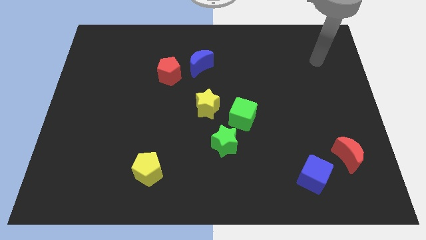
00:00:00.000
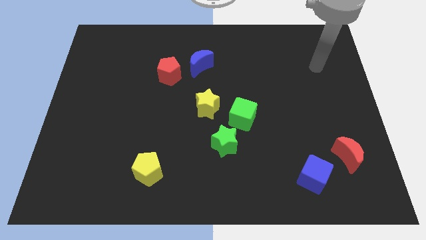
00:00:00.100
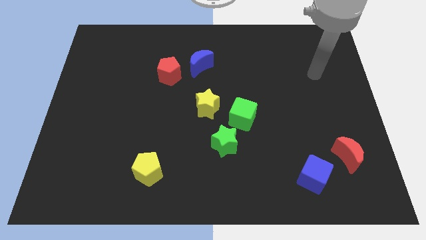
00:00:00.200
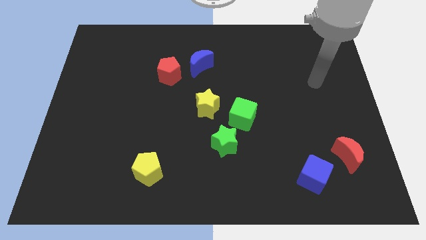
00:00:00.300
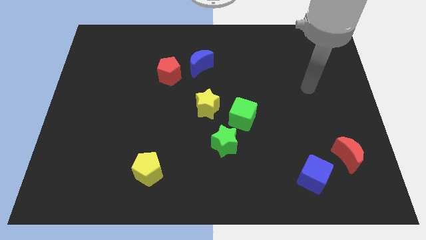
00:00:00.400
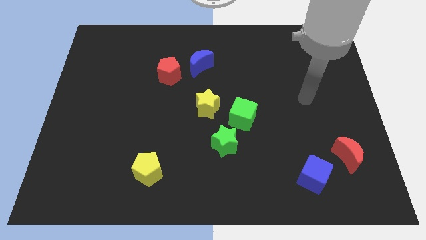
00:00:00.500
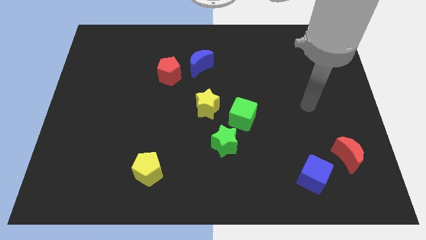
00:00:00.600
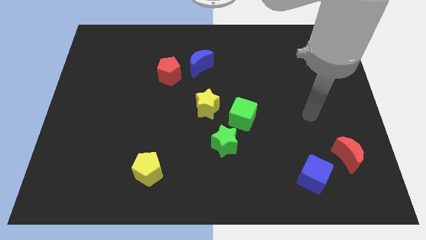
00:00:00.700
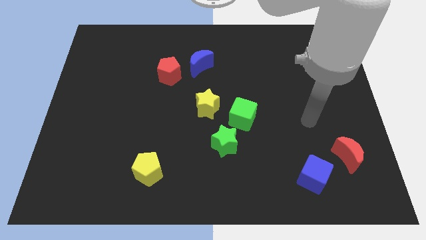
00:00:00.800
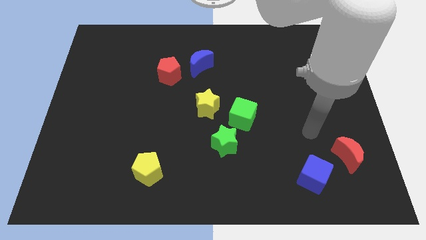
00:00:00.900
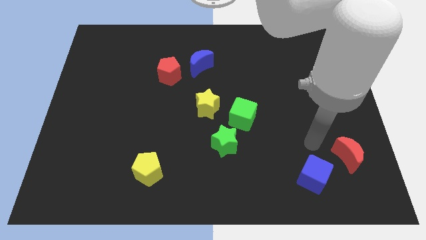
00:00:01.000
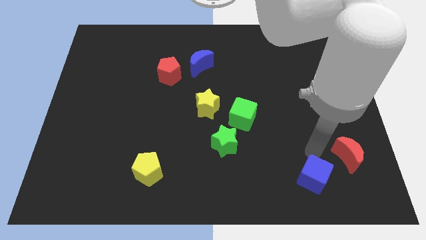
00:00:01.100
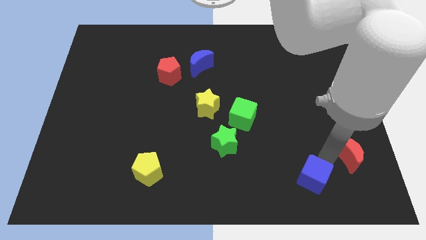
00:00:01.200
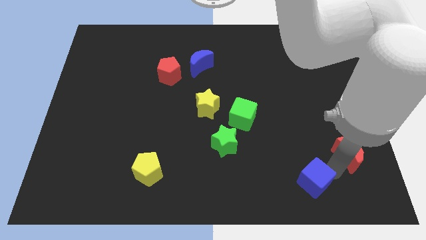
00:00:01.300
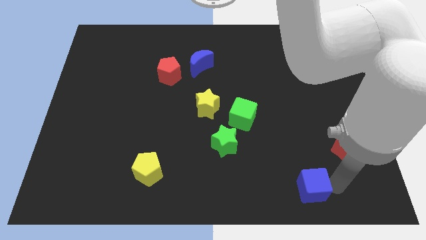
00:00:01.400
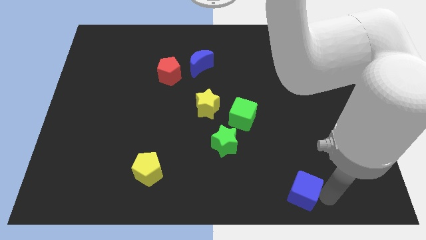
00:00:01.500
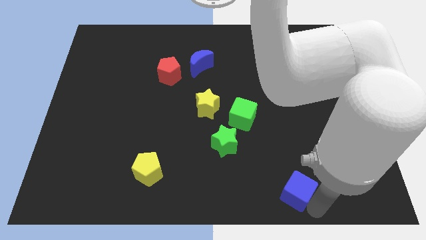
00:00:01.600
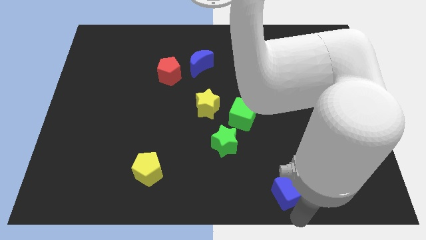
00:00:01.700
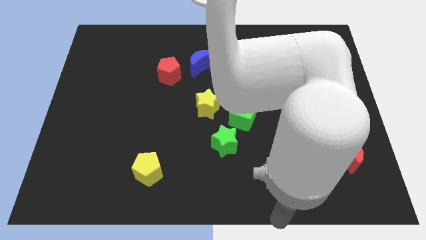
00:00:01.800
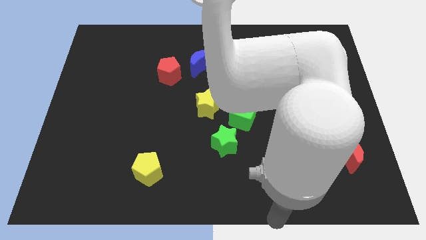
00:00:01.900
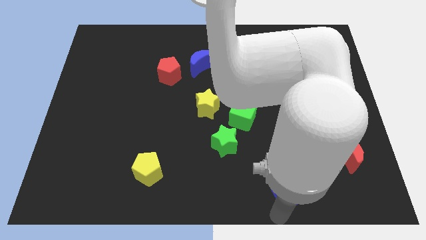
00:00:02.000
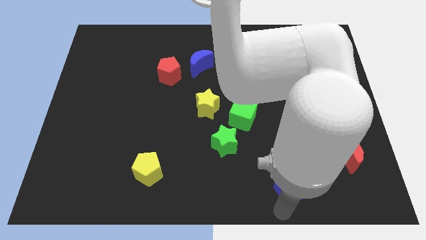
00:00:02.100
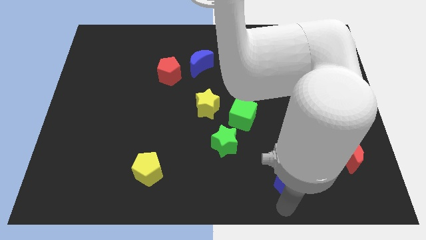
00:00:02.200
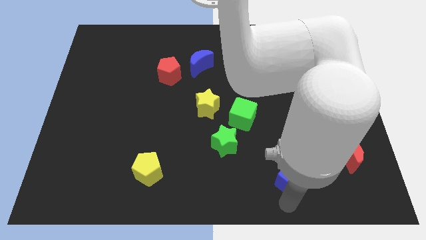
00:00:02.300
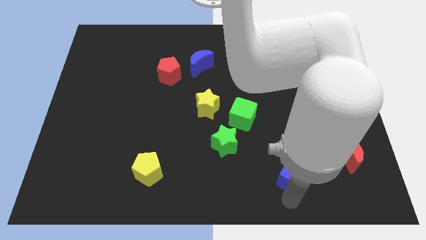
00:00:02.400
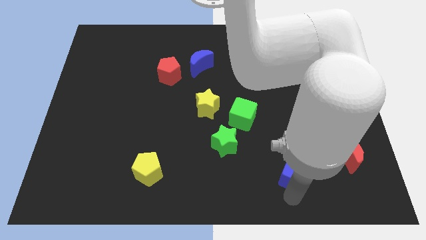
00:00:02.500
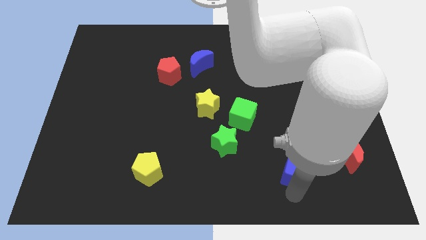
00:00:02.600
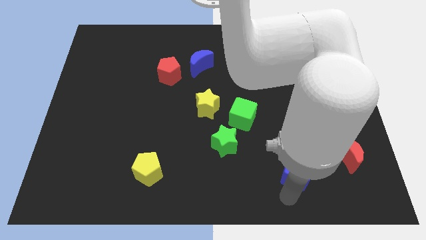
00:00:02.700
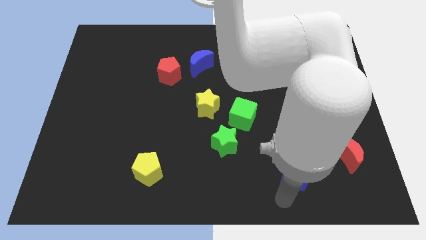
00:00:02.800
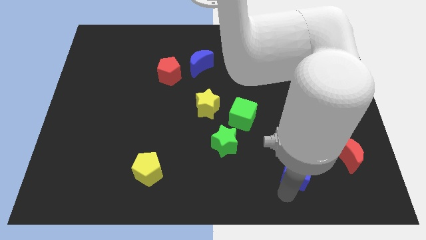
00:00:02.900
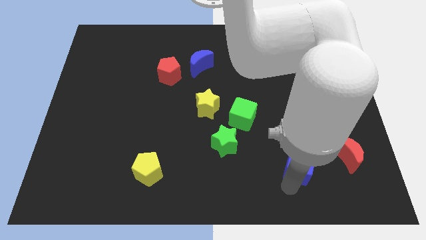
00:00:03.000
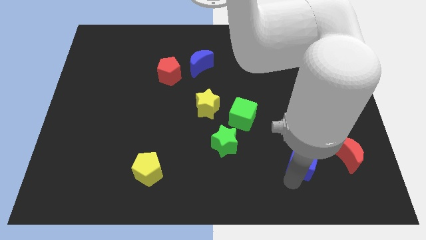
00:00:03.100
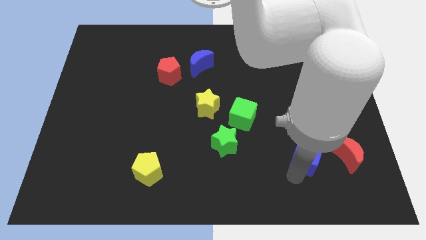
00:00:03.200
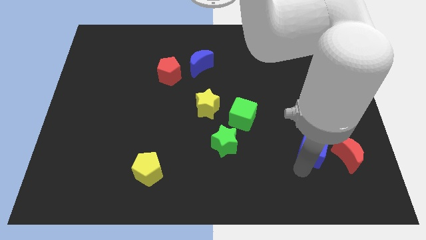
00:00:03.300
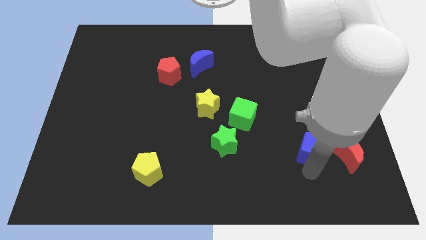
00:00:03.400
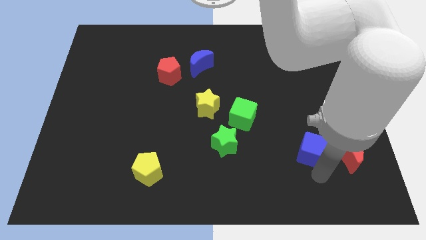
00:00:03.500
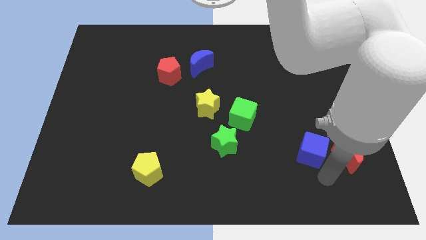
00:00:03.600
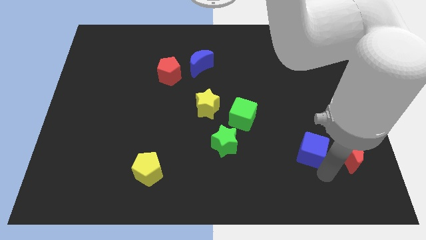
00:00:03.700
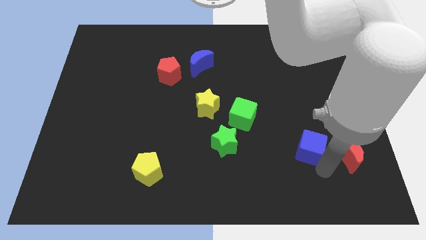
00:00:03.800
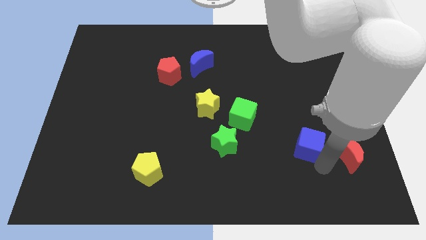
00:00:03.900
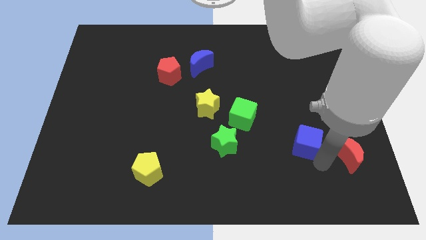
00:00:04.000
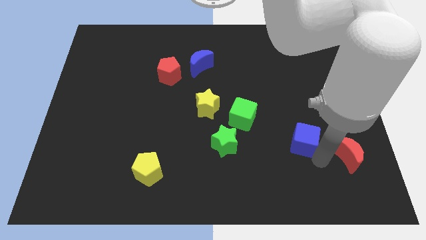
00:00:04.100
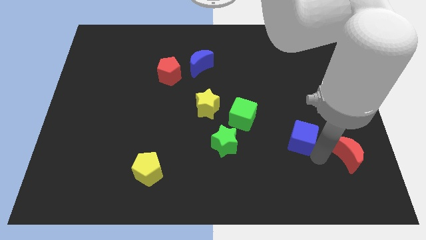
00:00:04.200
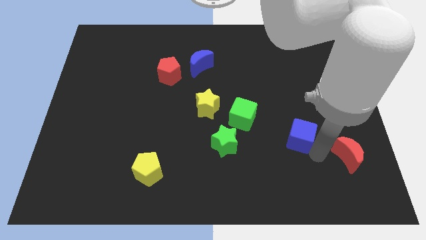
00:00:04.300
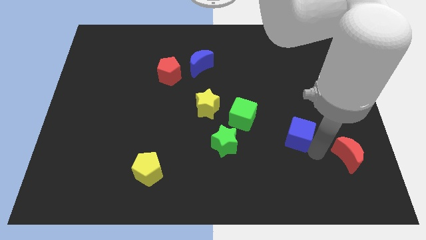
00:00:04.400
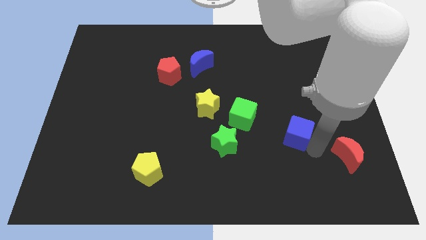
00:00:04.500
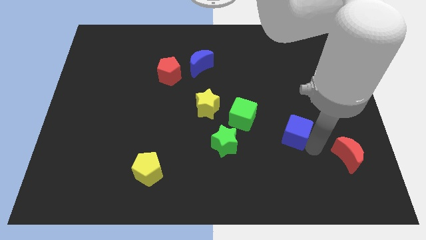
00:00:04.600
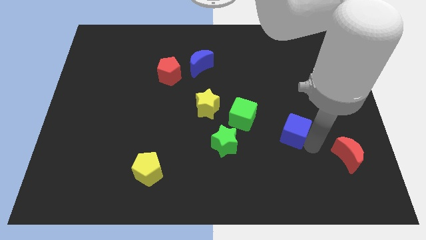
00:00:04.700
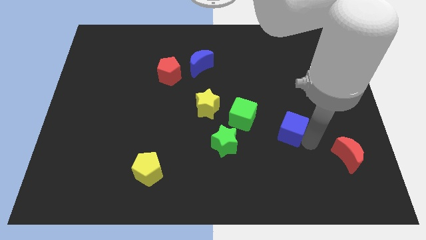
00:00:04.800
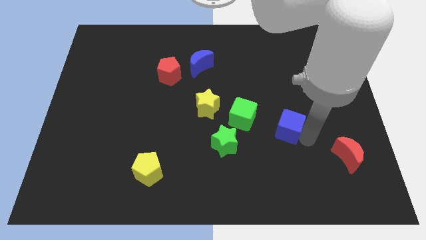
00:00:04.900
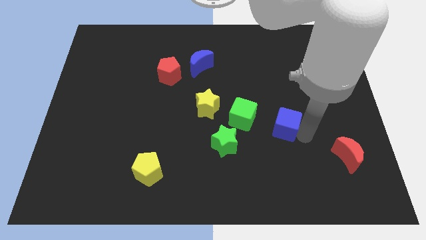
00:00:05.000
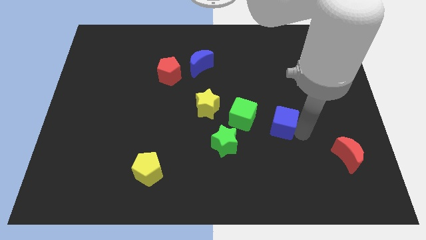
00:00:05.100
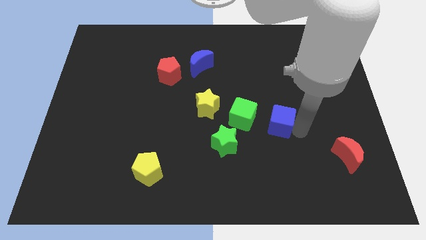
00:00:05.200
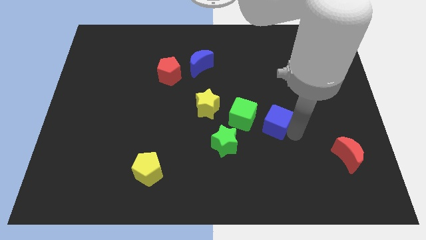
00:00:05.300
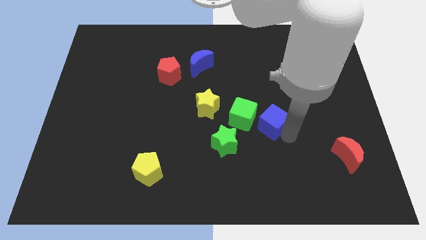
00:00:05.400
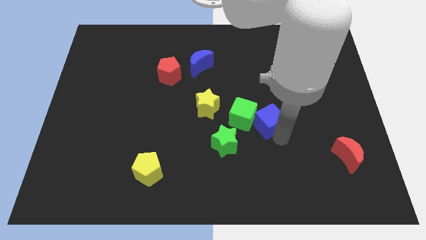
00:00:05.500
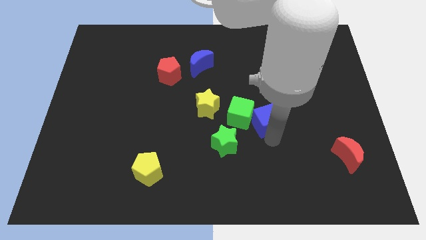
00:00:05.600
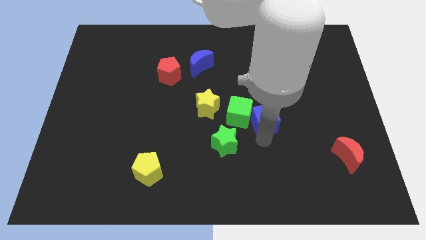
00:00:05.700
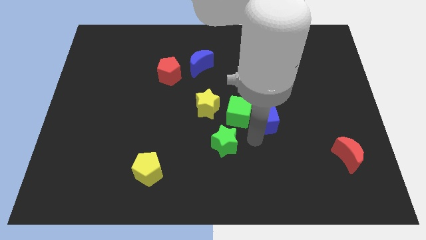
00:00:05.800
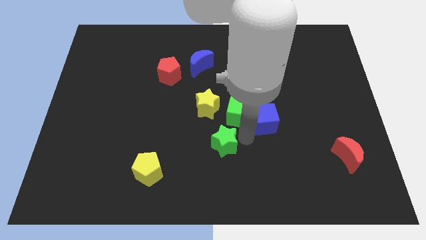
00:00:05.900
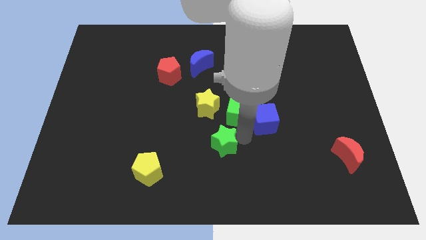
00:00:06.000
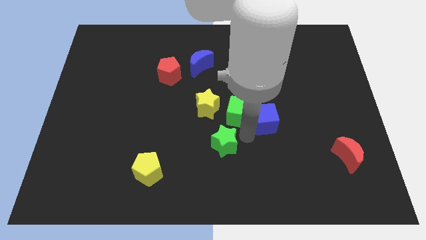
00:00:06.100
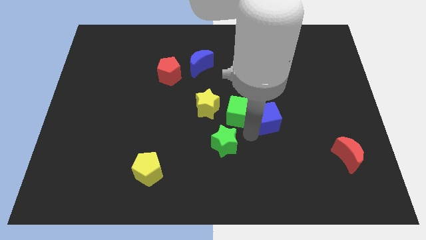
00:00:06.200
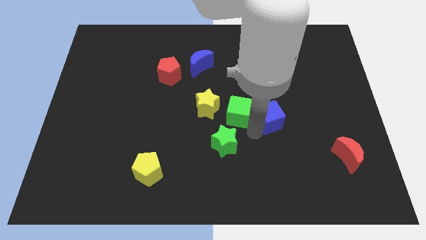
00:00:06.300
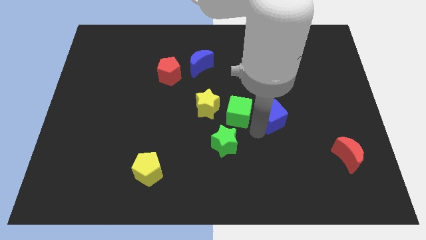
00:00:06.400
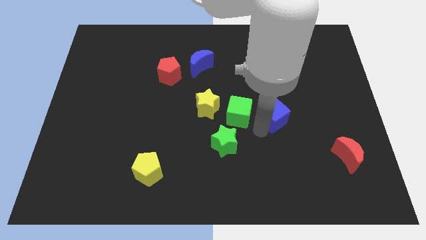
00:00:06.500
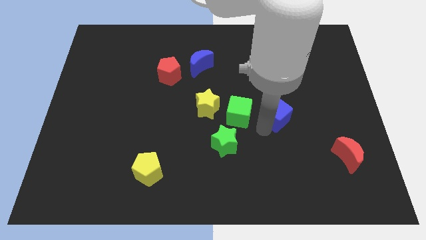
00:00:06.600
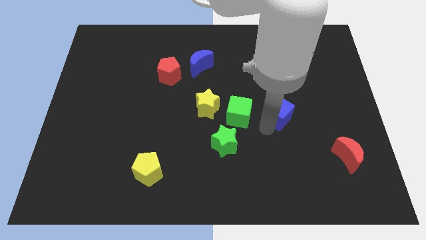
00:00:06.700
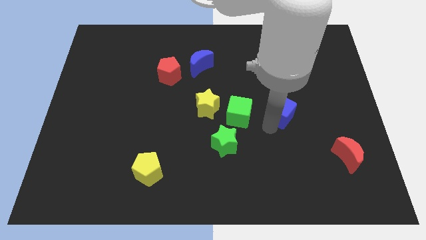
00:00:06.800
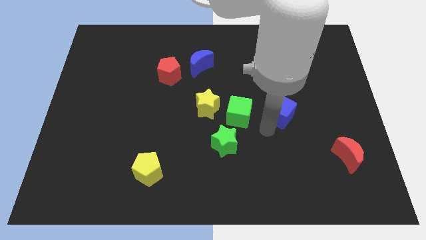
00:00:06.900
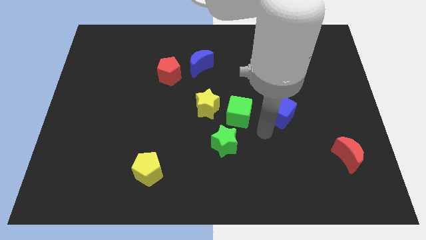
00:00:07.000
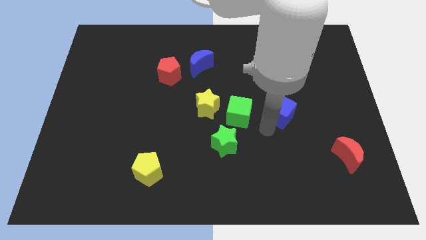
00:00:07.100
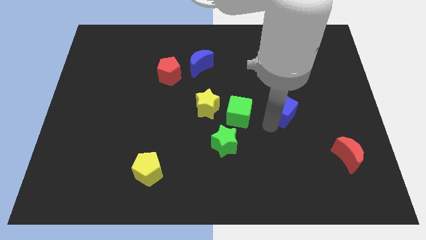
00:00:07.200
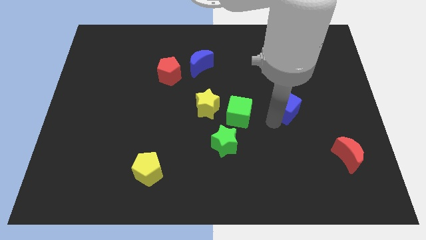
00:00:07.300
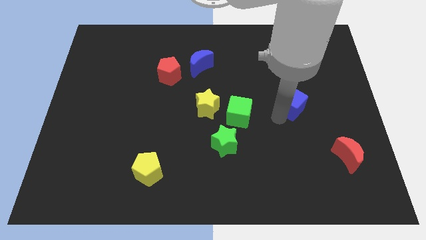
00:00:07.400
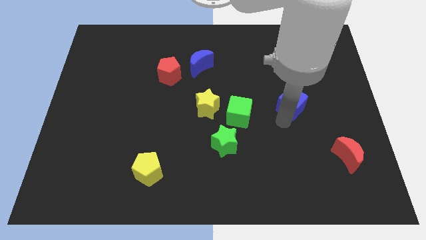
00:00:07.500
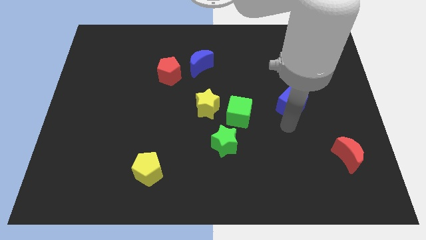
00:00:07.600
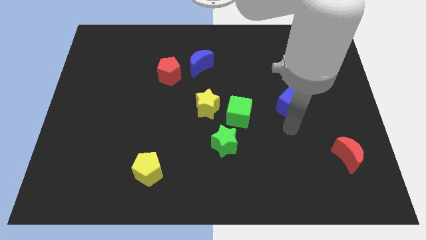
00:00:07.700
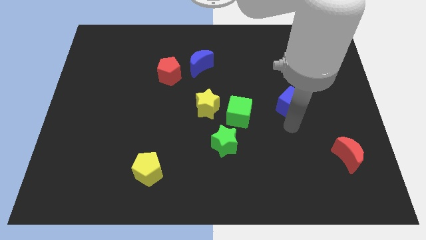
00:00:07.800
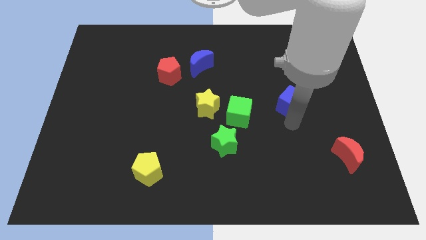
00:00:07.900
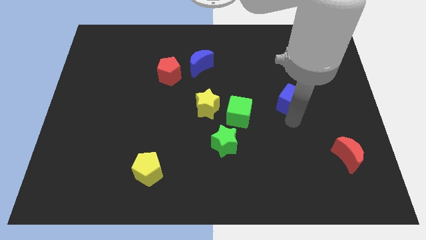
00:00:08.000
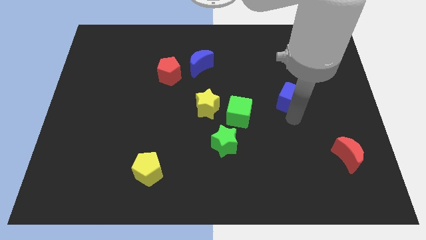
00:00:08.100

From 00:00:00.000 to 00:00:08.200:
move the blue cube up
